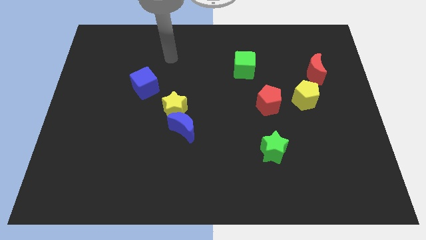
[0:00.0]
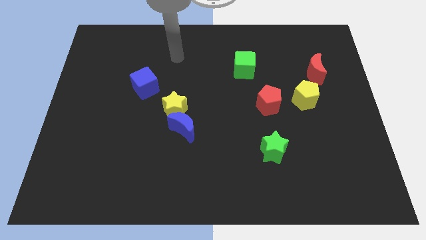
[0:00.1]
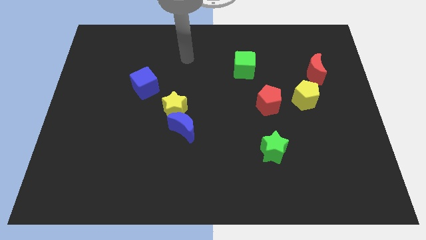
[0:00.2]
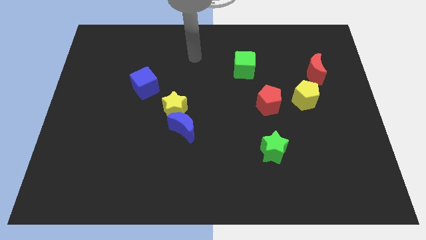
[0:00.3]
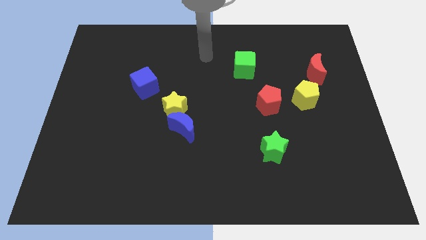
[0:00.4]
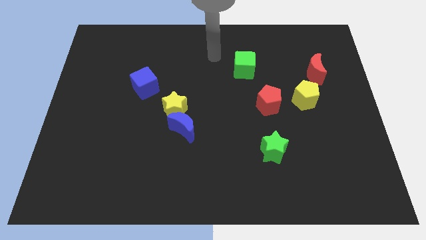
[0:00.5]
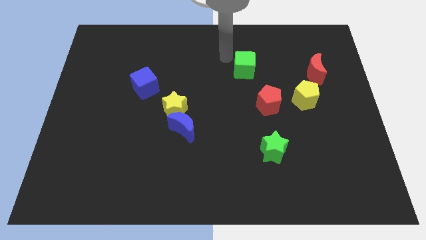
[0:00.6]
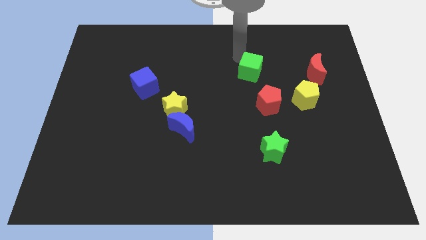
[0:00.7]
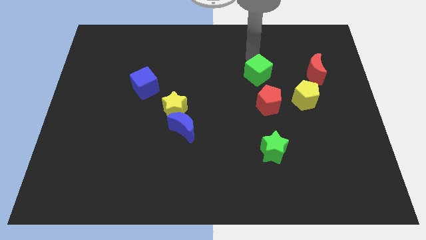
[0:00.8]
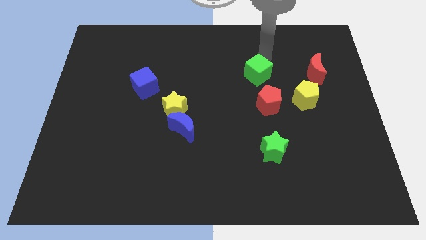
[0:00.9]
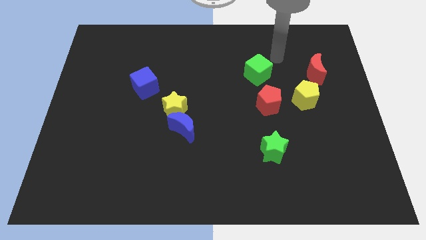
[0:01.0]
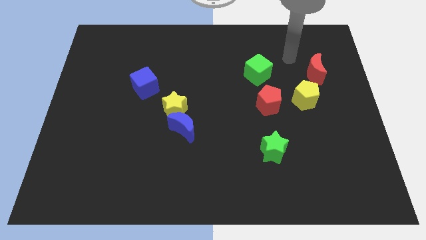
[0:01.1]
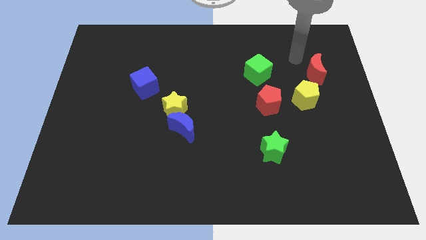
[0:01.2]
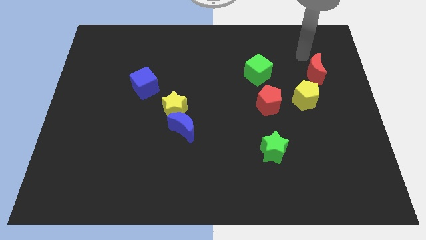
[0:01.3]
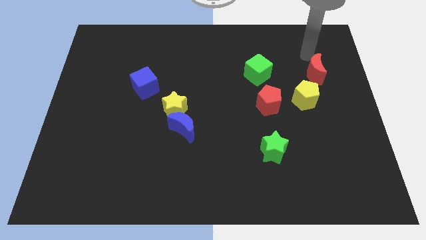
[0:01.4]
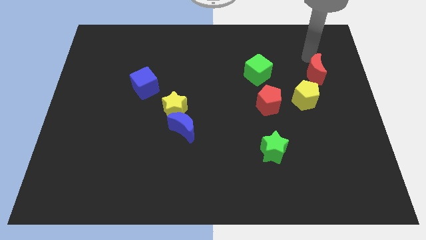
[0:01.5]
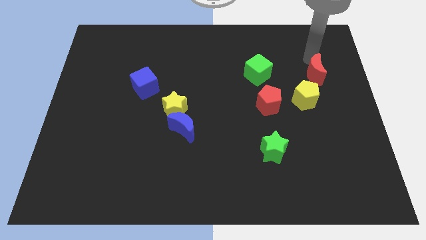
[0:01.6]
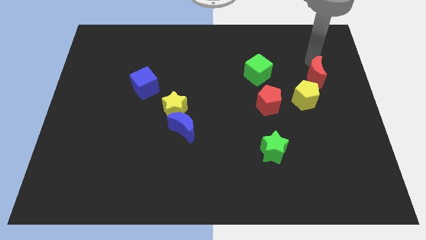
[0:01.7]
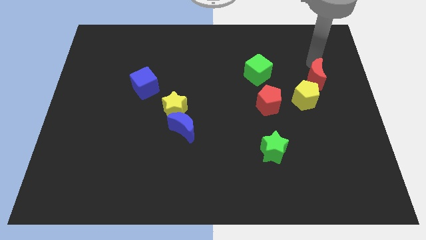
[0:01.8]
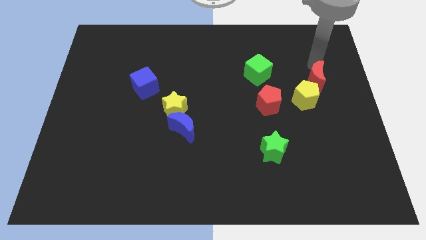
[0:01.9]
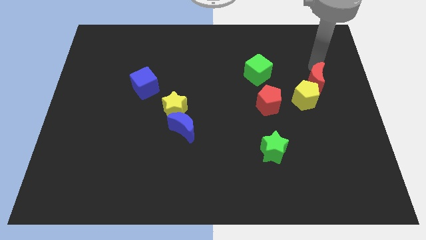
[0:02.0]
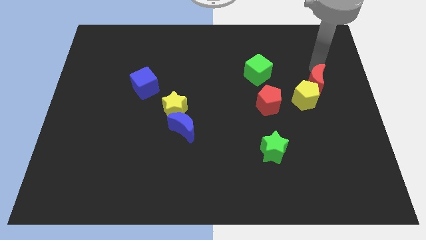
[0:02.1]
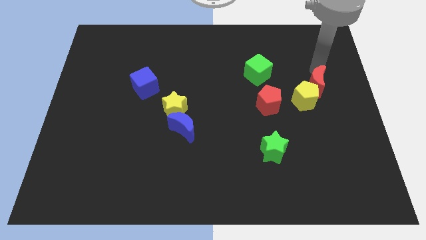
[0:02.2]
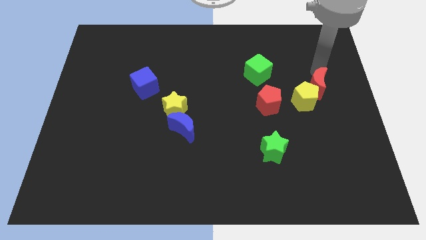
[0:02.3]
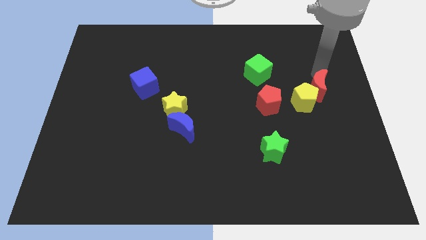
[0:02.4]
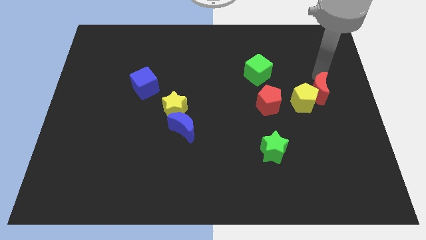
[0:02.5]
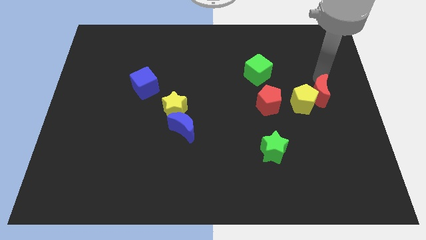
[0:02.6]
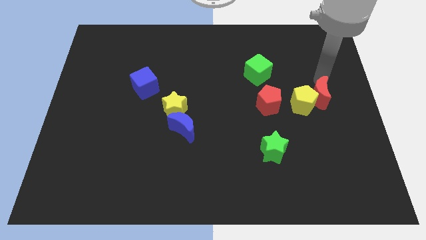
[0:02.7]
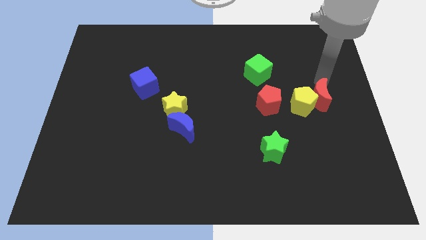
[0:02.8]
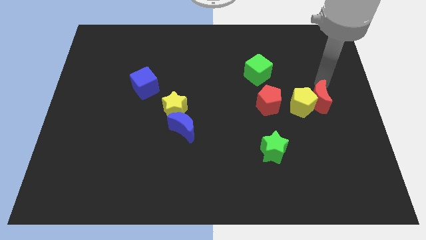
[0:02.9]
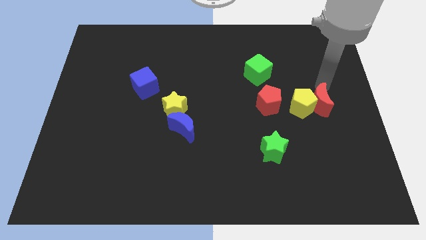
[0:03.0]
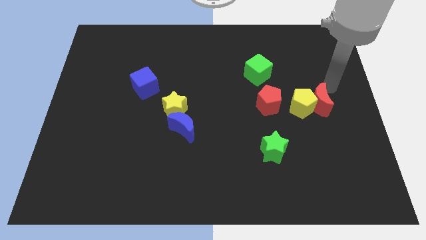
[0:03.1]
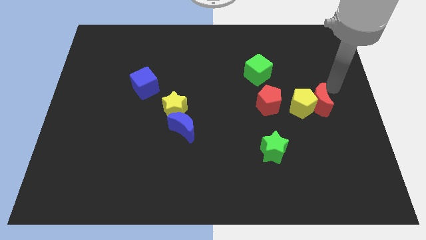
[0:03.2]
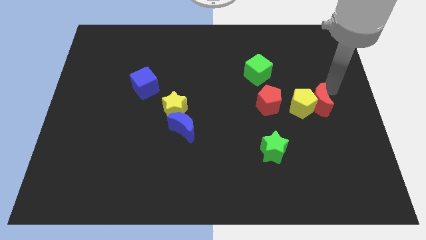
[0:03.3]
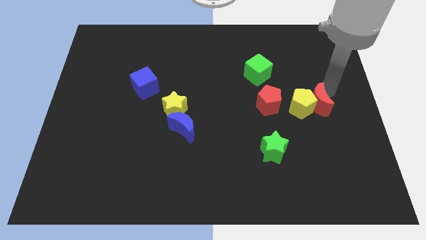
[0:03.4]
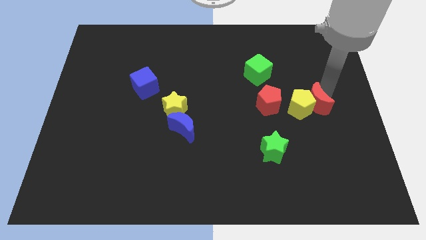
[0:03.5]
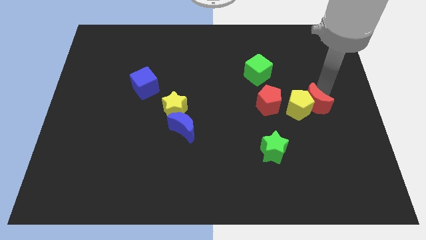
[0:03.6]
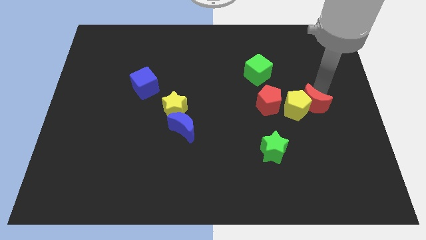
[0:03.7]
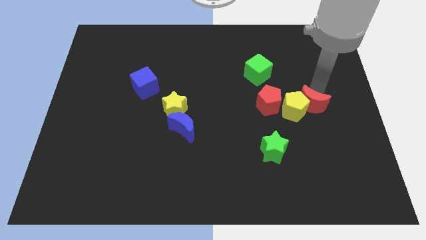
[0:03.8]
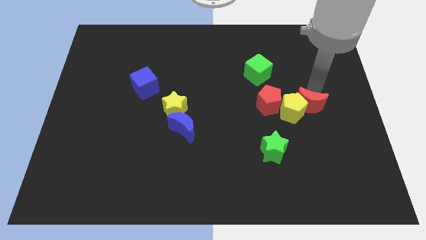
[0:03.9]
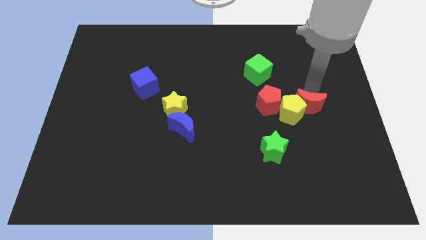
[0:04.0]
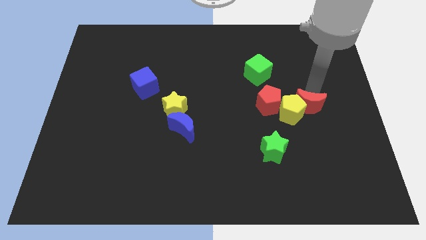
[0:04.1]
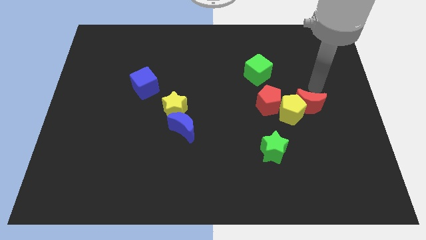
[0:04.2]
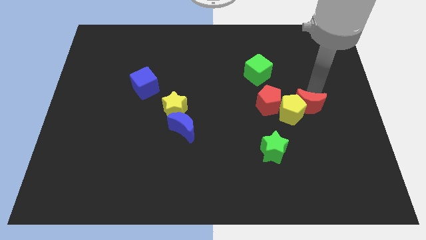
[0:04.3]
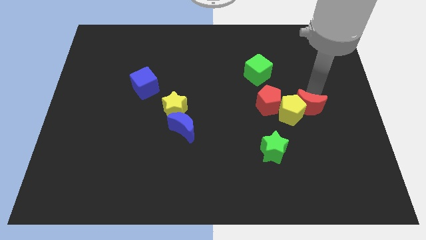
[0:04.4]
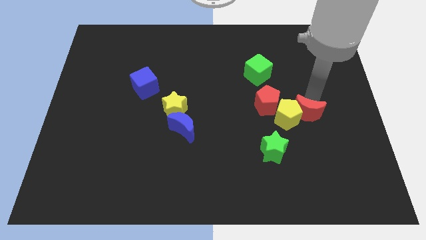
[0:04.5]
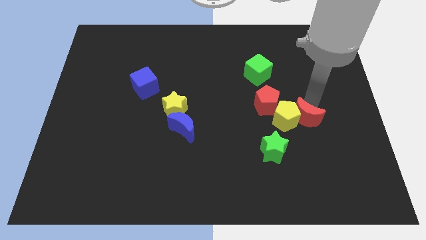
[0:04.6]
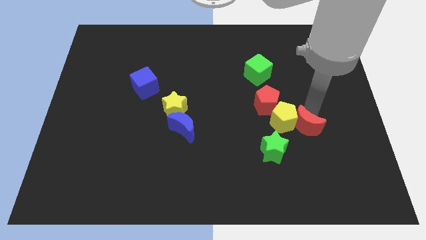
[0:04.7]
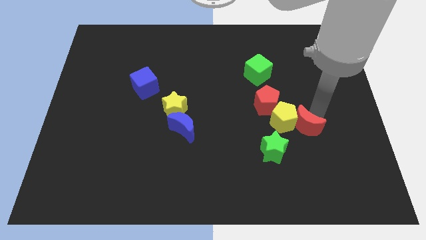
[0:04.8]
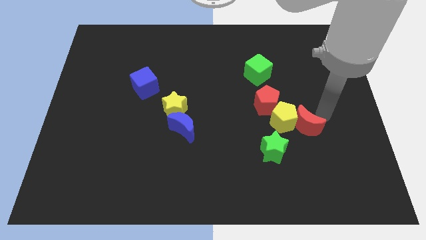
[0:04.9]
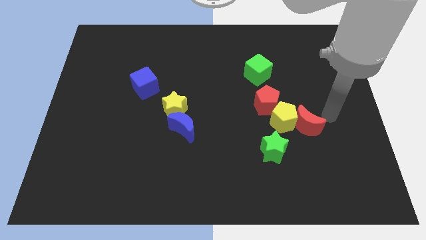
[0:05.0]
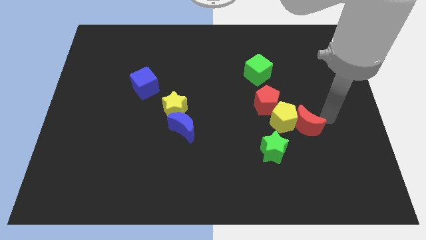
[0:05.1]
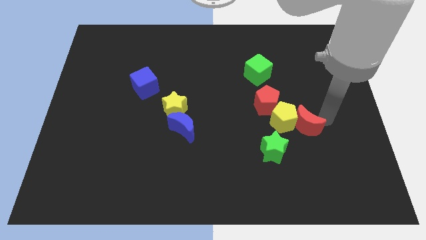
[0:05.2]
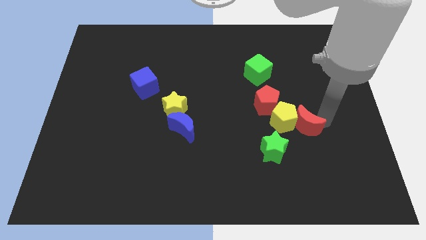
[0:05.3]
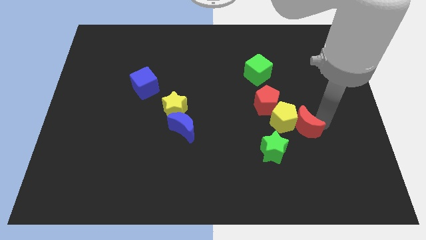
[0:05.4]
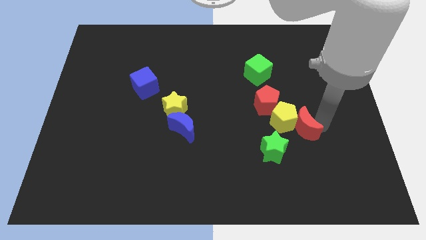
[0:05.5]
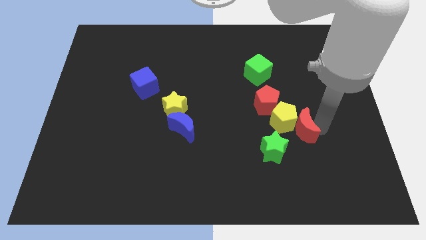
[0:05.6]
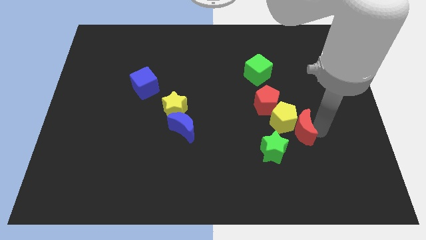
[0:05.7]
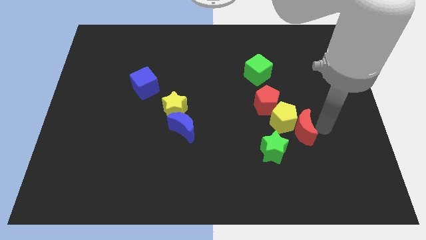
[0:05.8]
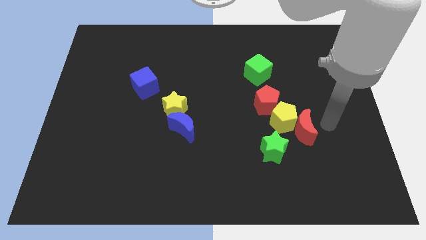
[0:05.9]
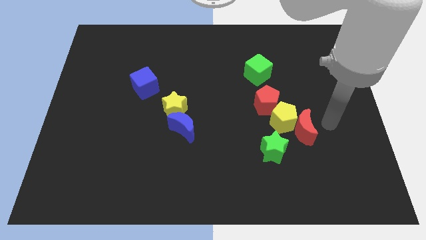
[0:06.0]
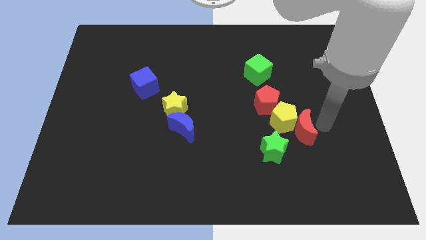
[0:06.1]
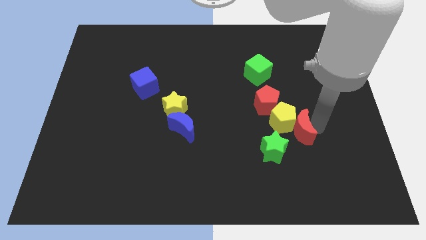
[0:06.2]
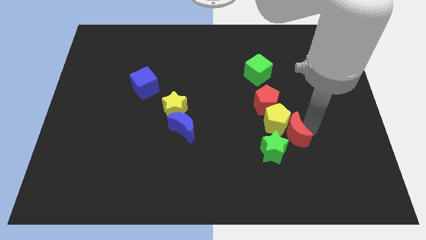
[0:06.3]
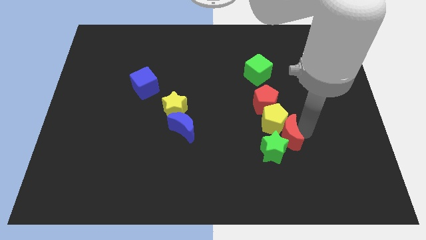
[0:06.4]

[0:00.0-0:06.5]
put the red moon to the green star

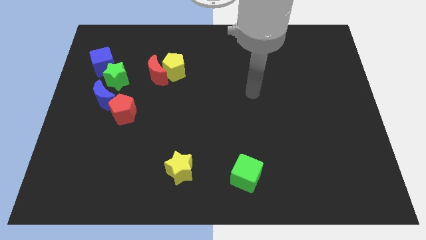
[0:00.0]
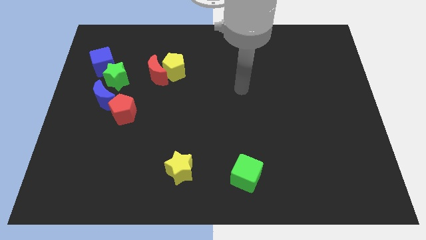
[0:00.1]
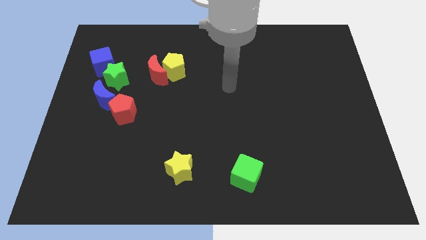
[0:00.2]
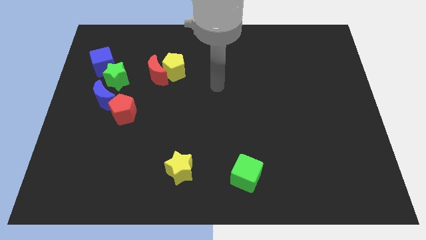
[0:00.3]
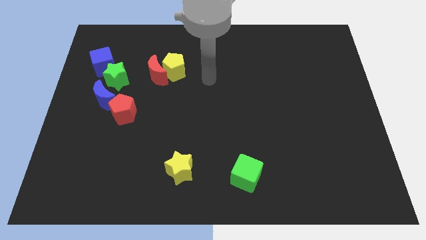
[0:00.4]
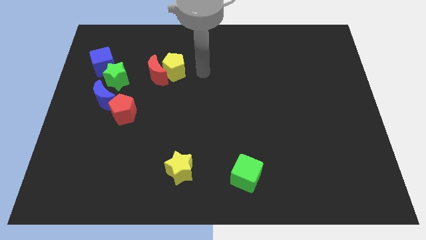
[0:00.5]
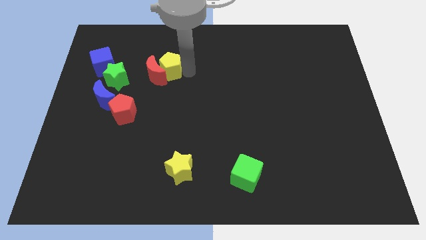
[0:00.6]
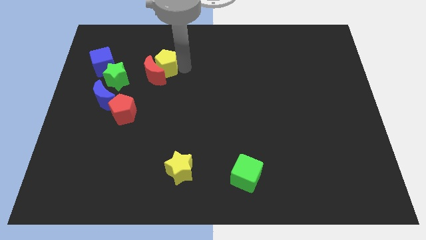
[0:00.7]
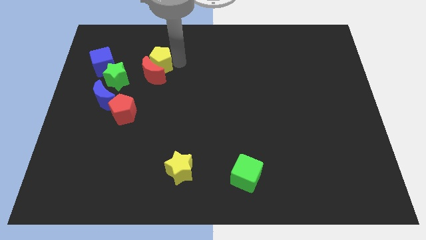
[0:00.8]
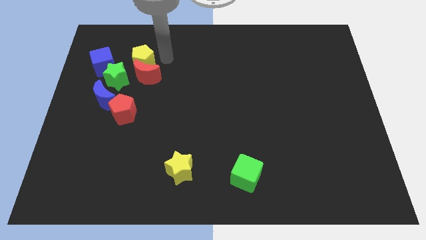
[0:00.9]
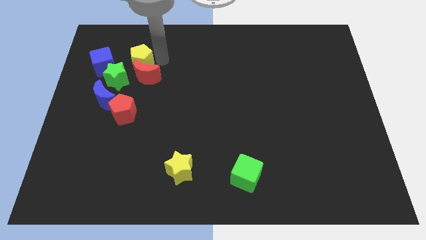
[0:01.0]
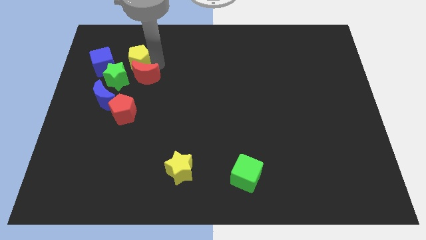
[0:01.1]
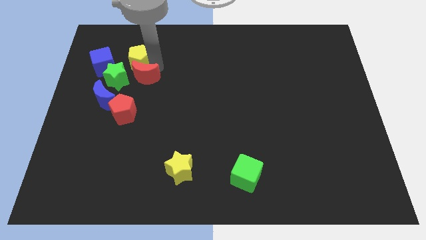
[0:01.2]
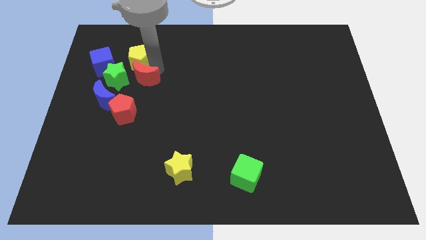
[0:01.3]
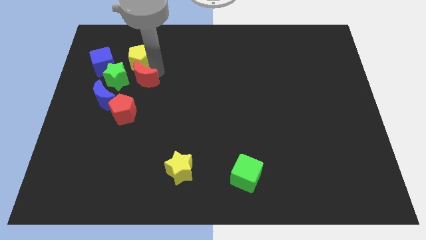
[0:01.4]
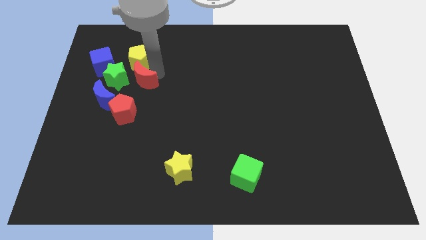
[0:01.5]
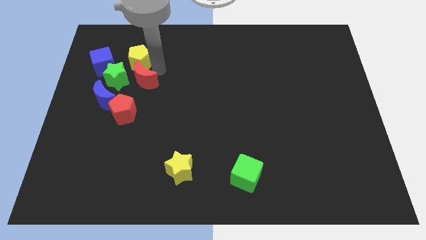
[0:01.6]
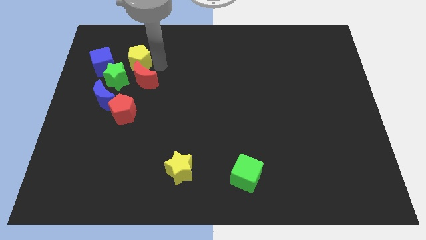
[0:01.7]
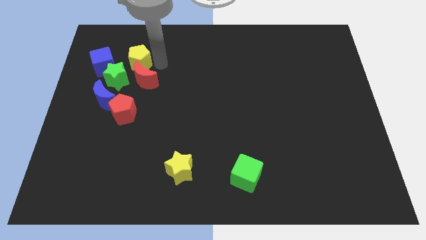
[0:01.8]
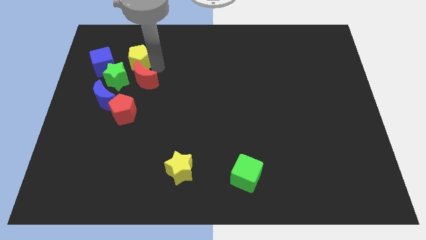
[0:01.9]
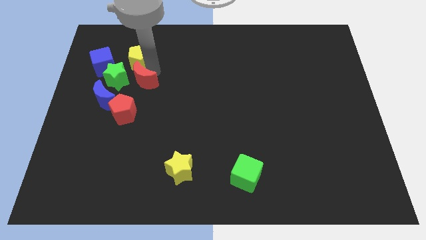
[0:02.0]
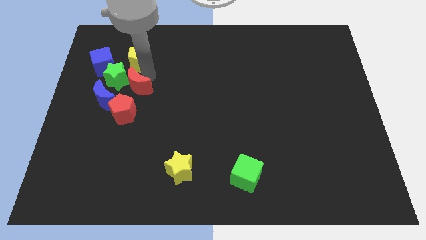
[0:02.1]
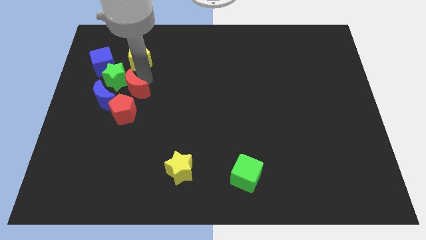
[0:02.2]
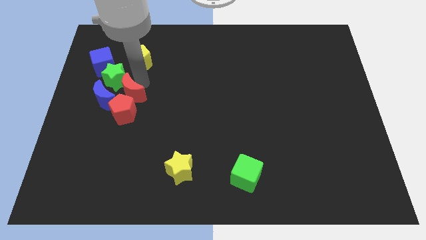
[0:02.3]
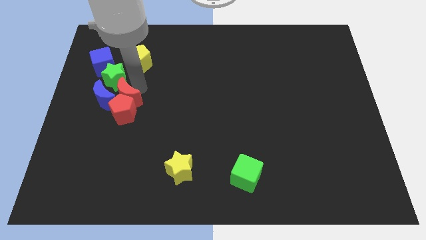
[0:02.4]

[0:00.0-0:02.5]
move the red moon towards the blue moon
